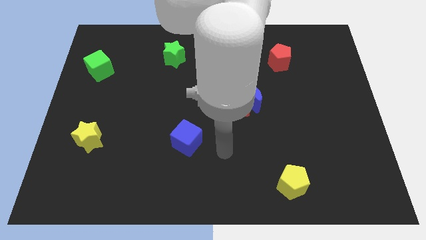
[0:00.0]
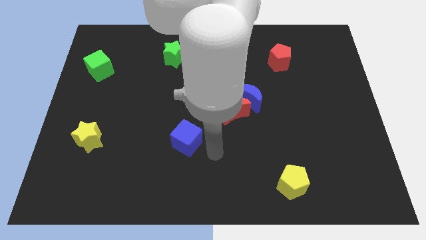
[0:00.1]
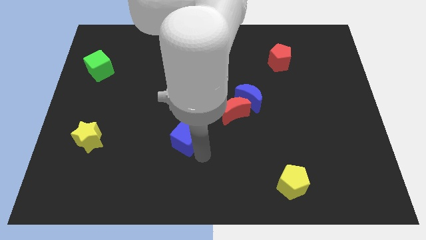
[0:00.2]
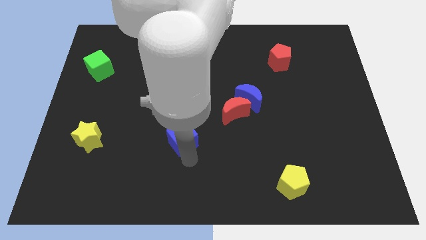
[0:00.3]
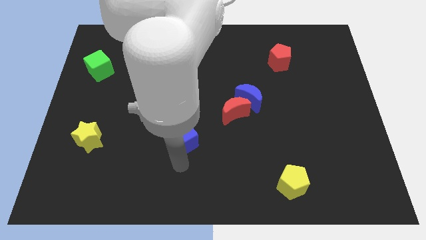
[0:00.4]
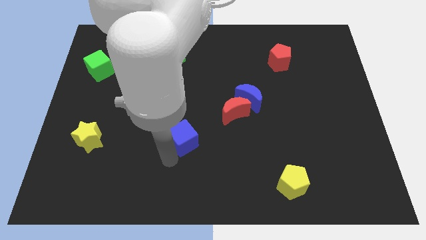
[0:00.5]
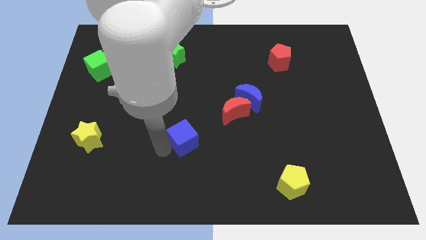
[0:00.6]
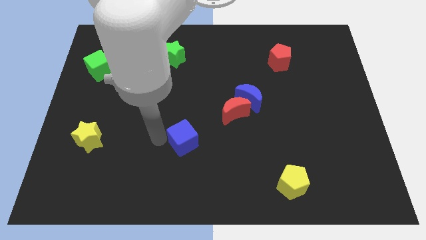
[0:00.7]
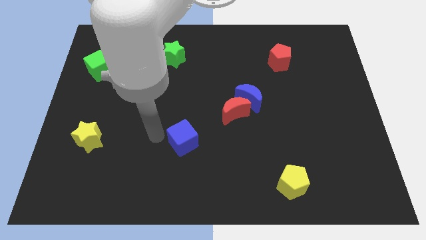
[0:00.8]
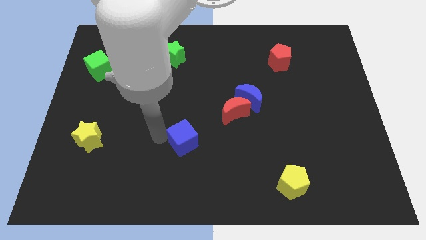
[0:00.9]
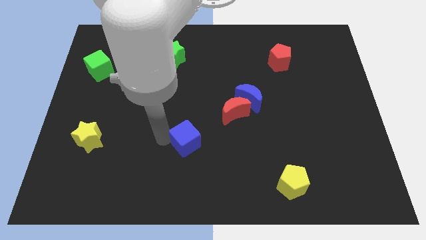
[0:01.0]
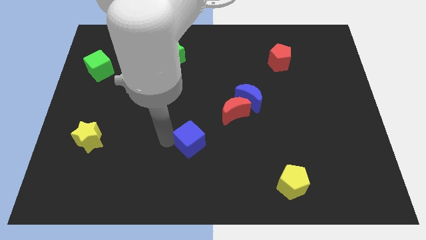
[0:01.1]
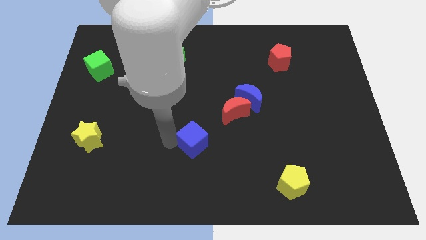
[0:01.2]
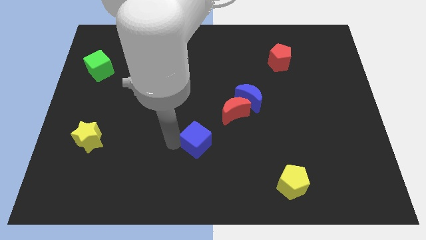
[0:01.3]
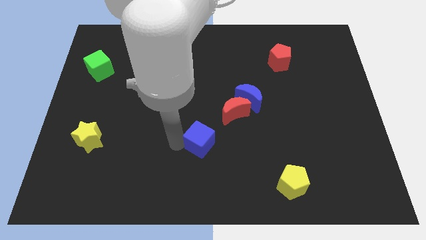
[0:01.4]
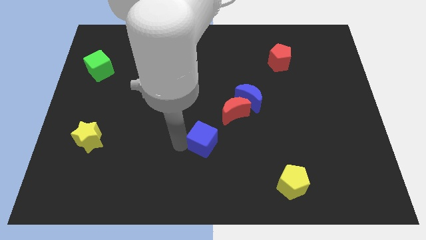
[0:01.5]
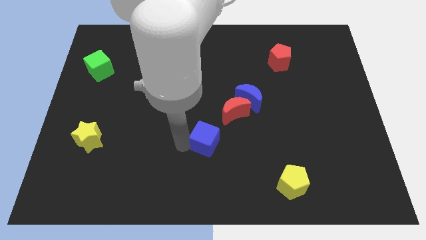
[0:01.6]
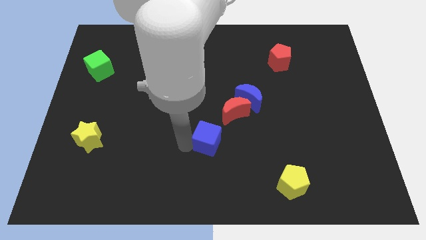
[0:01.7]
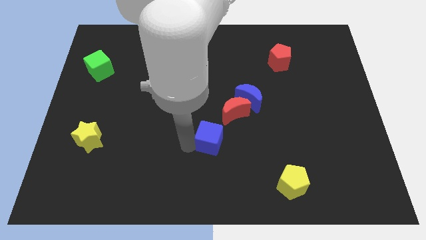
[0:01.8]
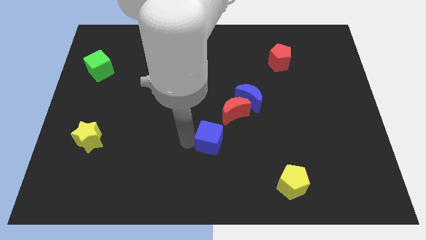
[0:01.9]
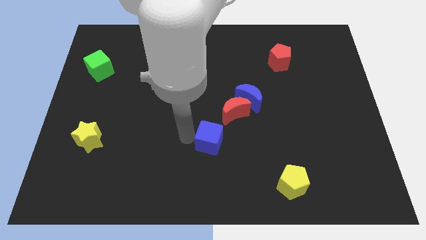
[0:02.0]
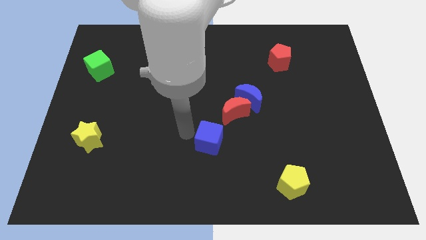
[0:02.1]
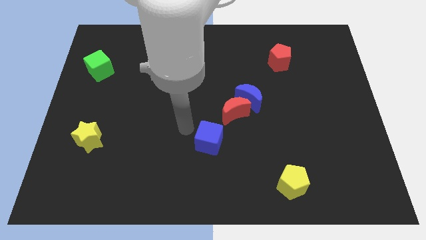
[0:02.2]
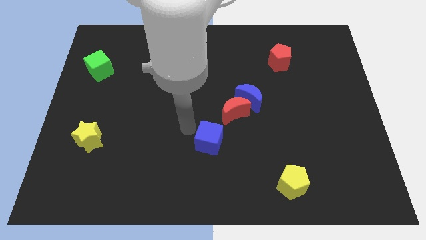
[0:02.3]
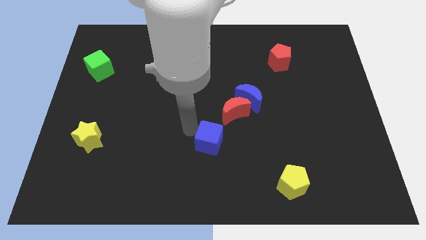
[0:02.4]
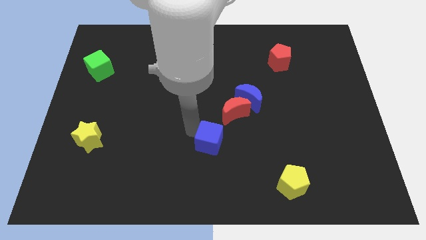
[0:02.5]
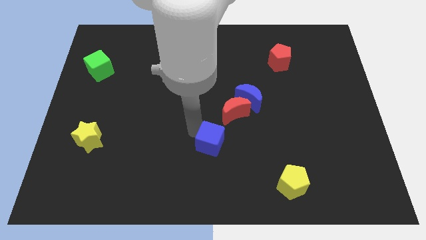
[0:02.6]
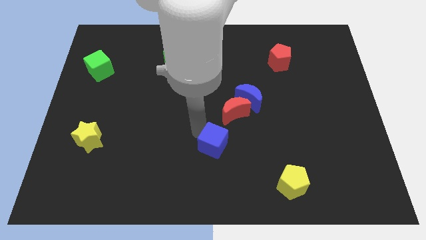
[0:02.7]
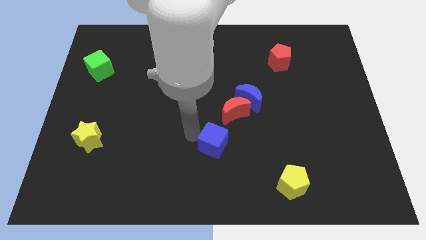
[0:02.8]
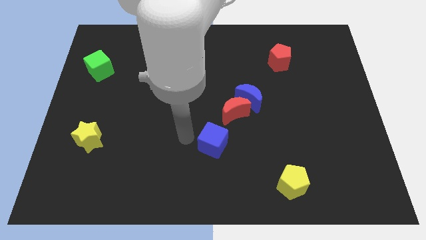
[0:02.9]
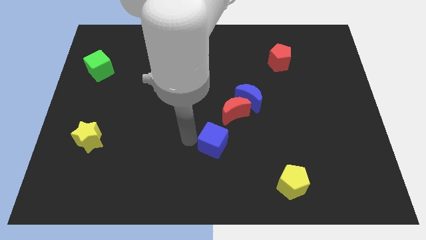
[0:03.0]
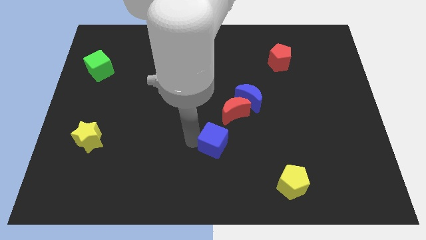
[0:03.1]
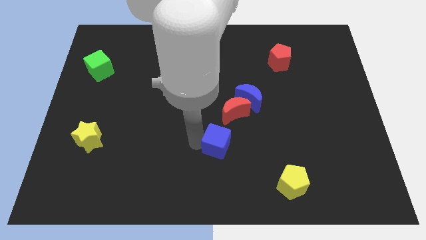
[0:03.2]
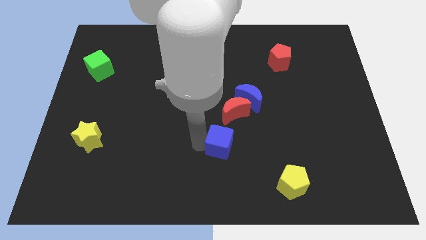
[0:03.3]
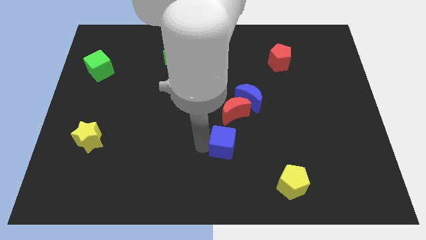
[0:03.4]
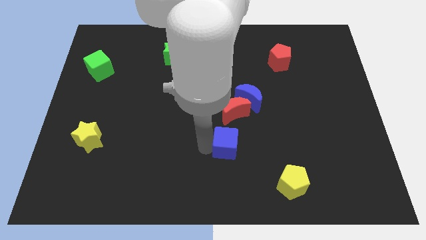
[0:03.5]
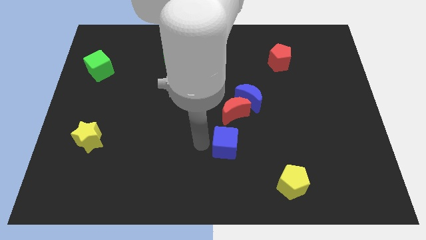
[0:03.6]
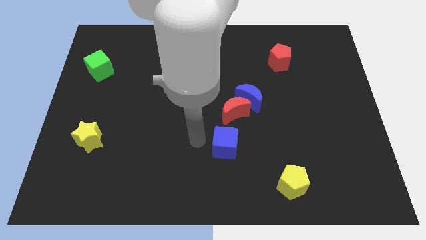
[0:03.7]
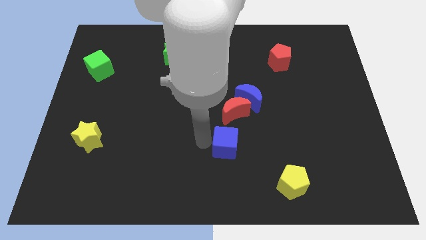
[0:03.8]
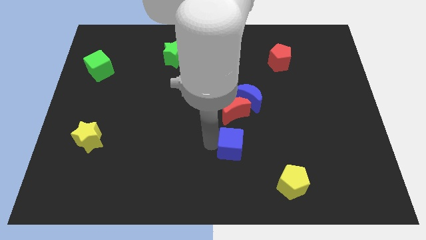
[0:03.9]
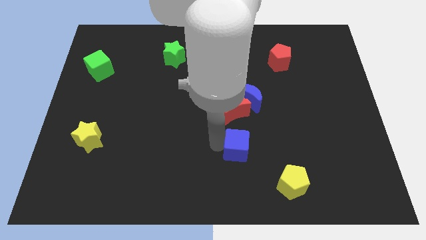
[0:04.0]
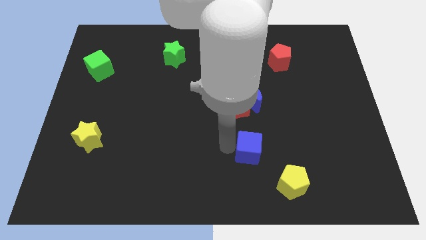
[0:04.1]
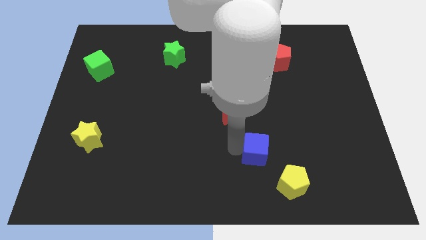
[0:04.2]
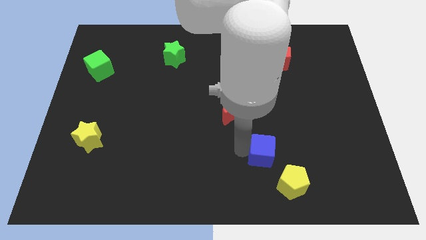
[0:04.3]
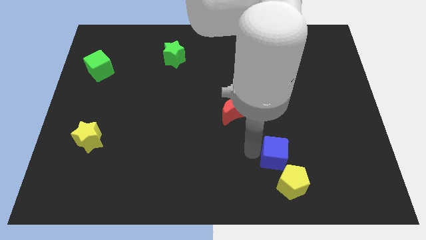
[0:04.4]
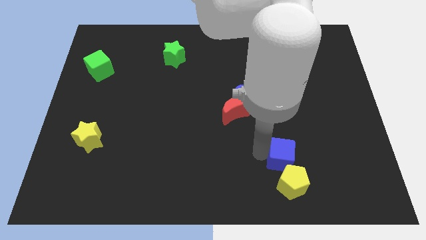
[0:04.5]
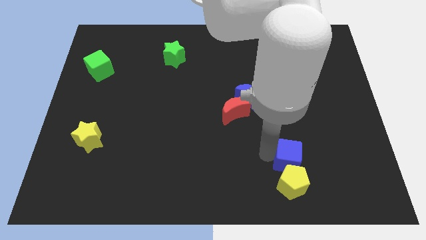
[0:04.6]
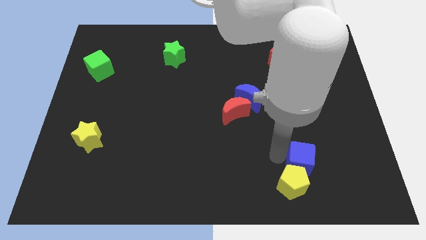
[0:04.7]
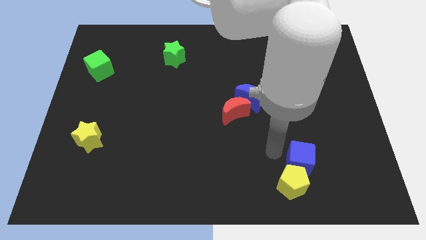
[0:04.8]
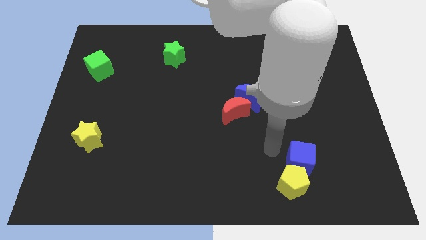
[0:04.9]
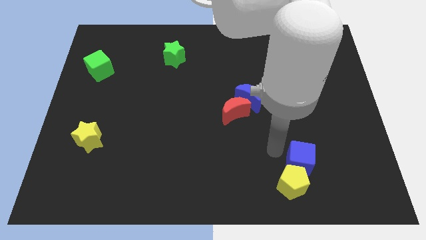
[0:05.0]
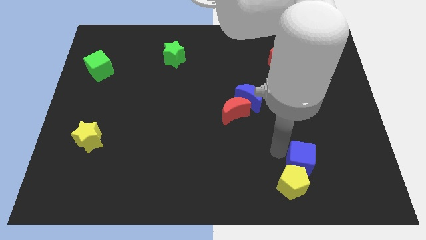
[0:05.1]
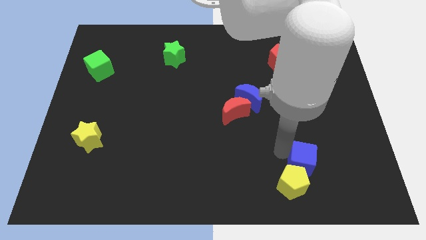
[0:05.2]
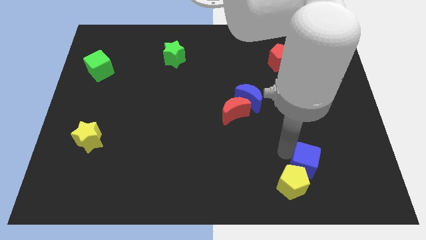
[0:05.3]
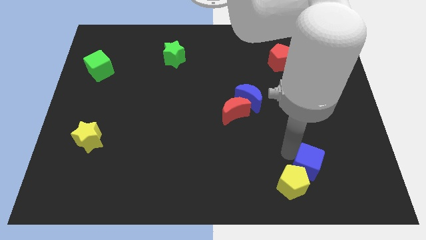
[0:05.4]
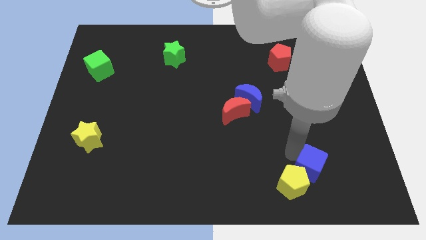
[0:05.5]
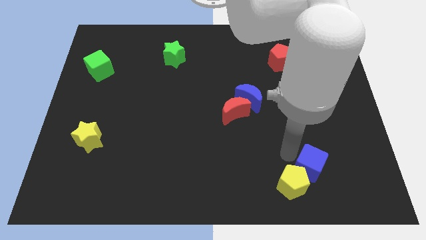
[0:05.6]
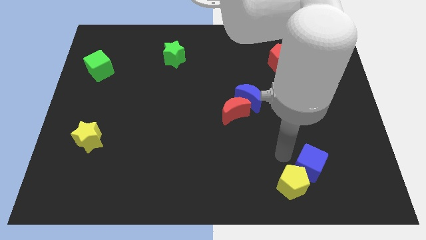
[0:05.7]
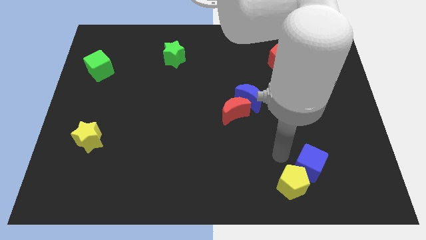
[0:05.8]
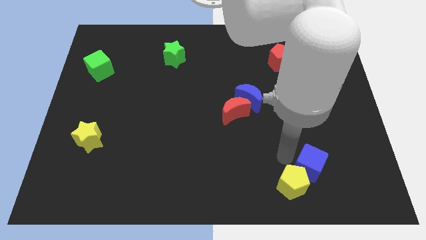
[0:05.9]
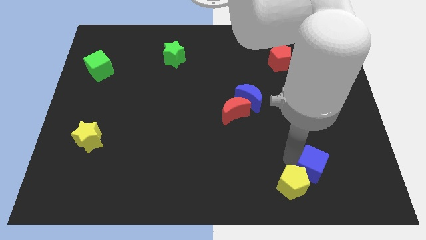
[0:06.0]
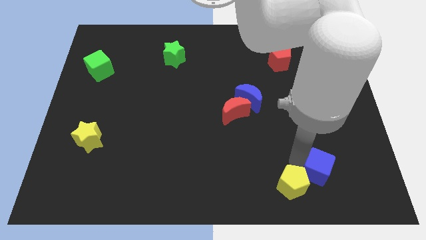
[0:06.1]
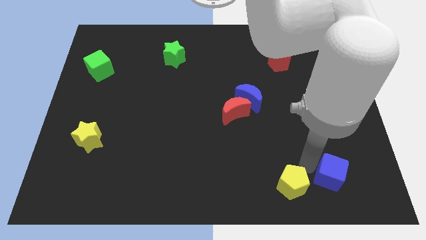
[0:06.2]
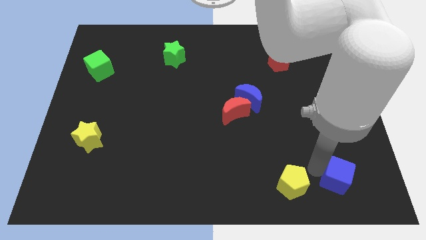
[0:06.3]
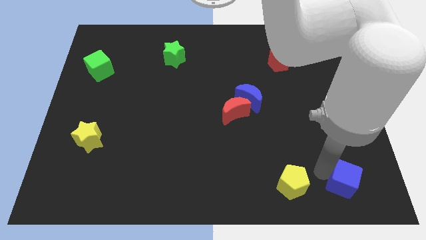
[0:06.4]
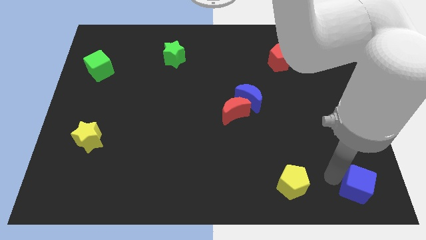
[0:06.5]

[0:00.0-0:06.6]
put the blue cube to the bottom right corner
